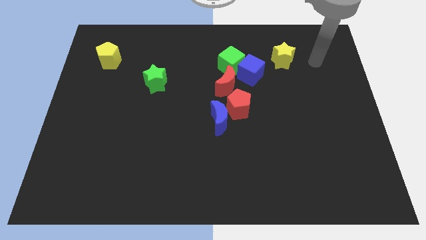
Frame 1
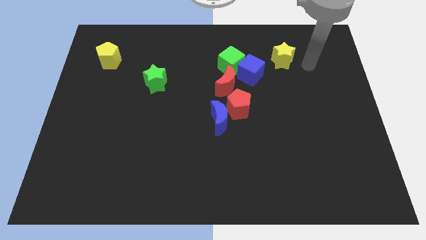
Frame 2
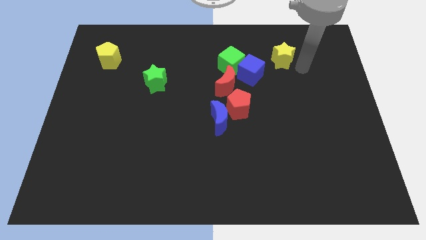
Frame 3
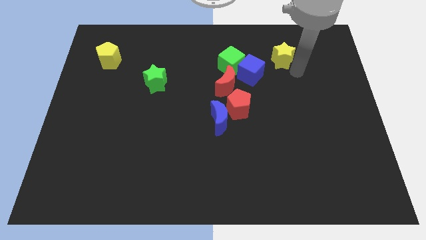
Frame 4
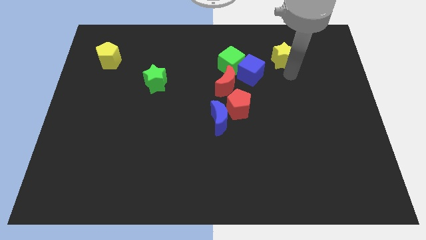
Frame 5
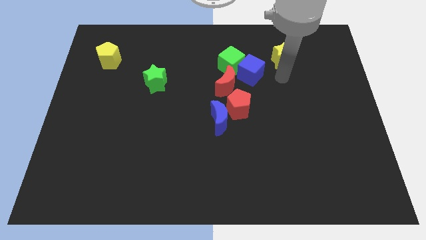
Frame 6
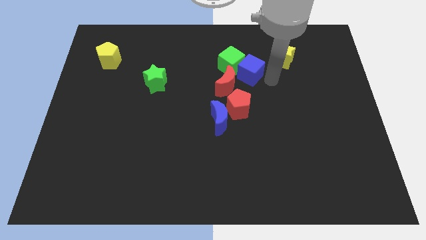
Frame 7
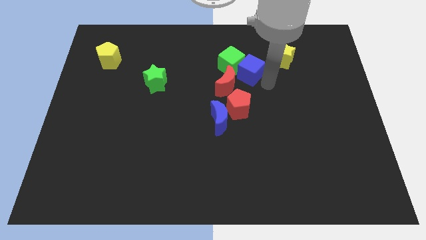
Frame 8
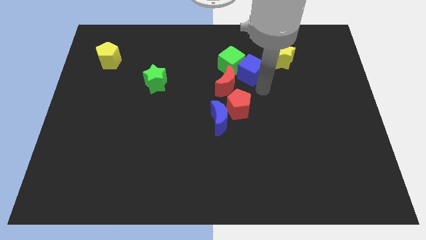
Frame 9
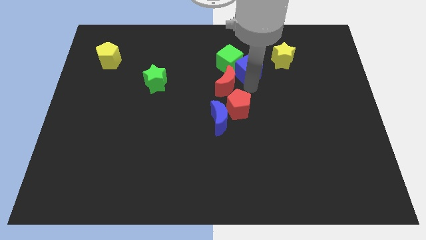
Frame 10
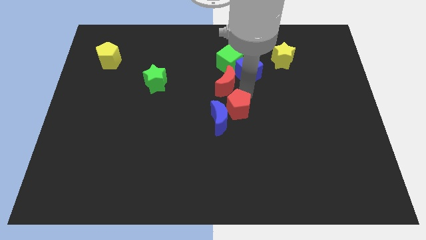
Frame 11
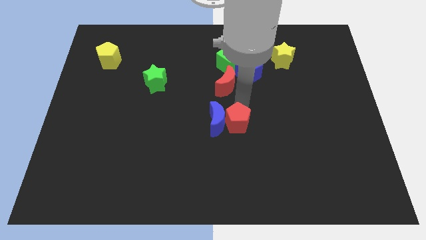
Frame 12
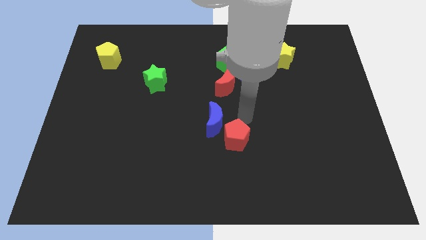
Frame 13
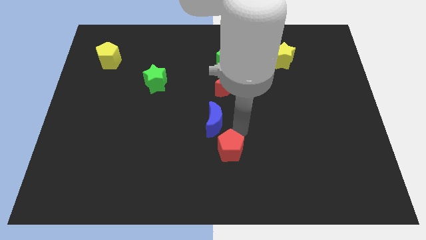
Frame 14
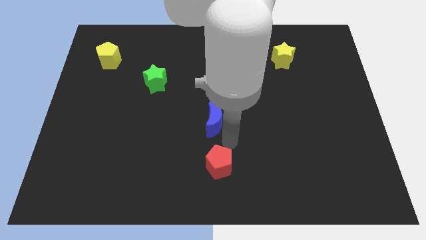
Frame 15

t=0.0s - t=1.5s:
move the blue moon away from the red pentagon

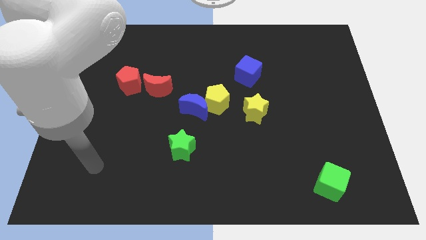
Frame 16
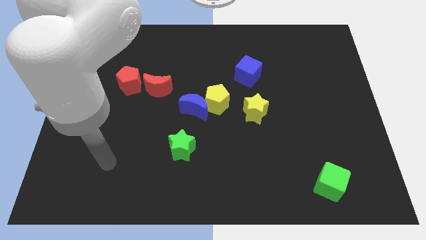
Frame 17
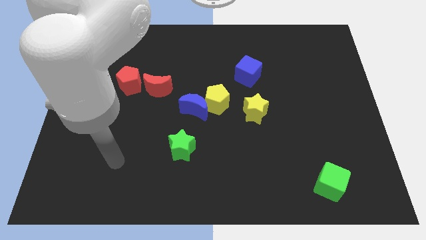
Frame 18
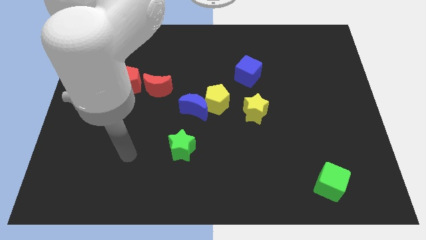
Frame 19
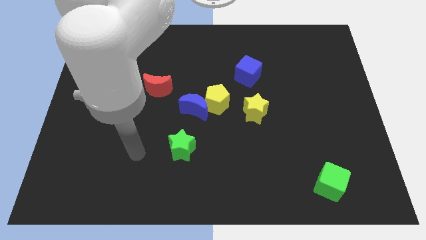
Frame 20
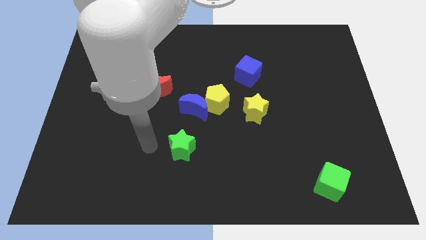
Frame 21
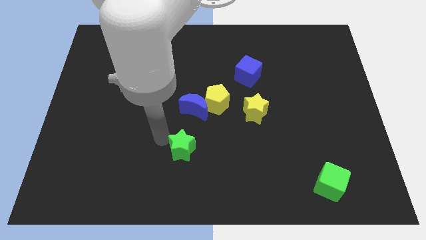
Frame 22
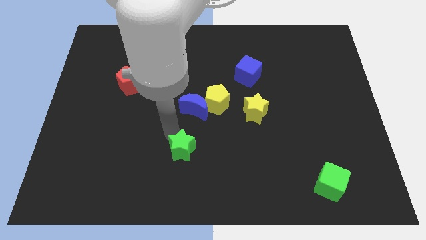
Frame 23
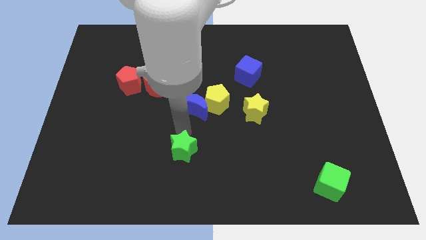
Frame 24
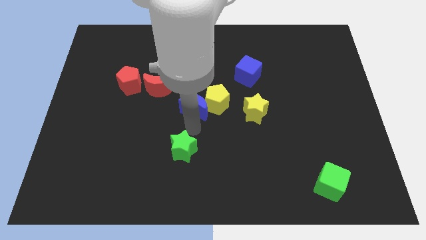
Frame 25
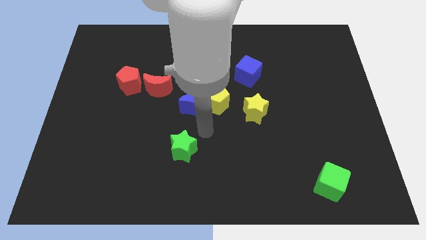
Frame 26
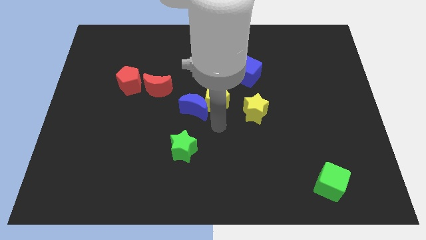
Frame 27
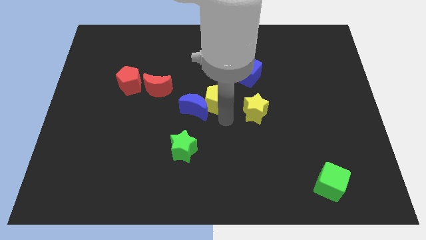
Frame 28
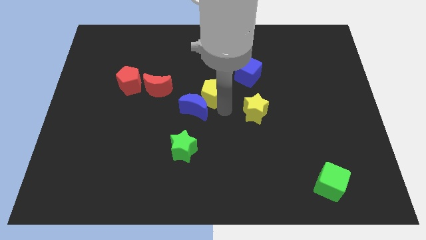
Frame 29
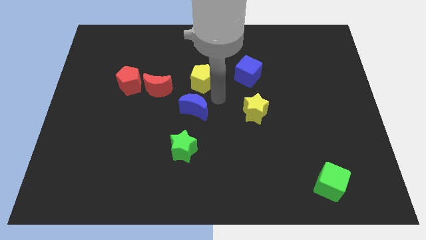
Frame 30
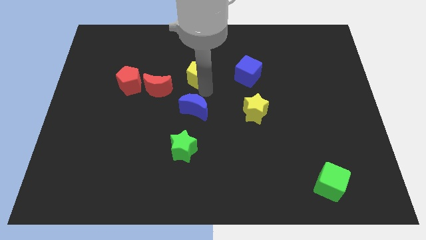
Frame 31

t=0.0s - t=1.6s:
separate the blue moon from the yellow pentagon

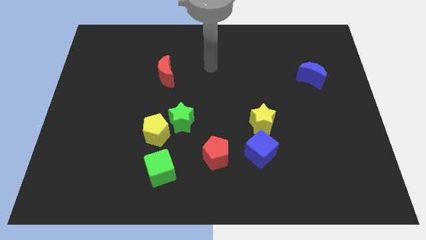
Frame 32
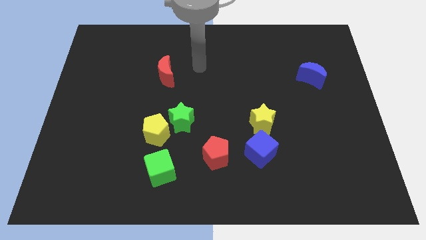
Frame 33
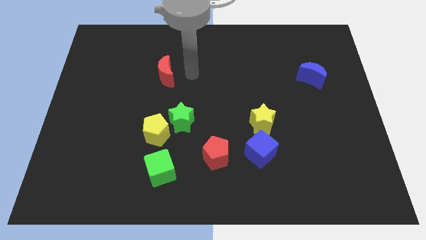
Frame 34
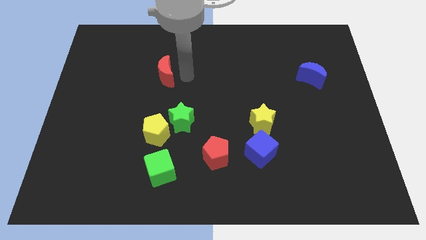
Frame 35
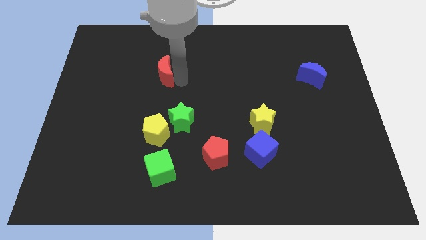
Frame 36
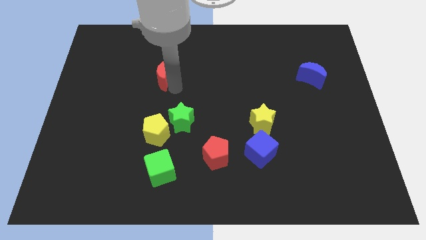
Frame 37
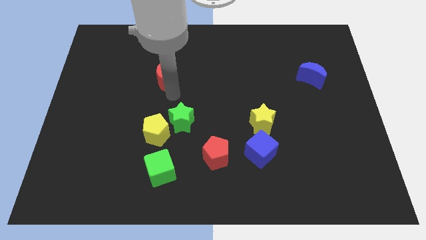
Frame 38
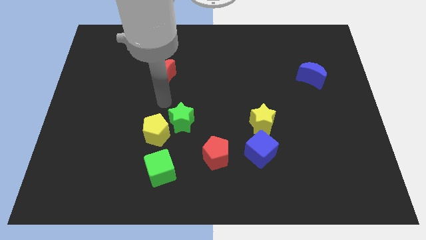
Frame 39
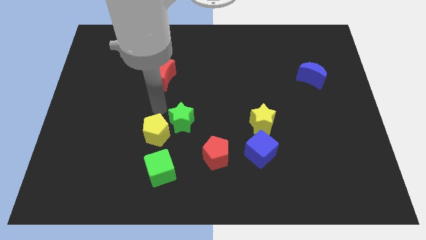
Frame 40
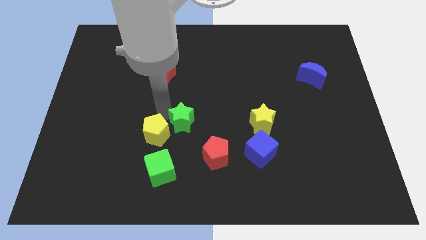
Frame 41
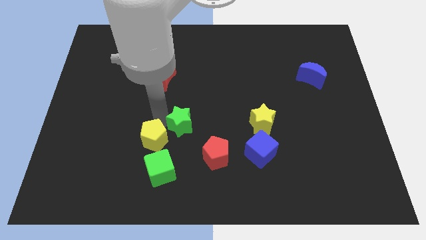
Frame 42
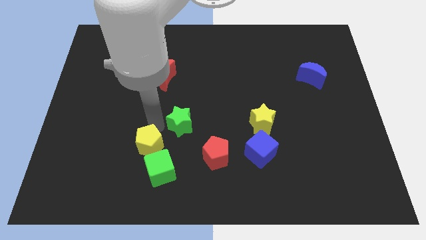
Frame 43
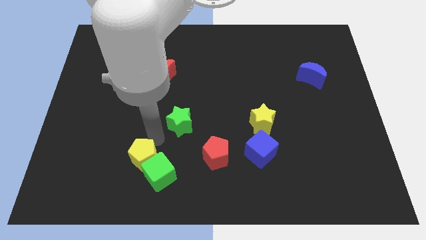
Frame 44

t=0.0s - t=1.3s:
separate the green star from the yellow pentagon

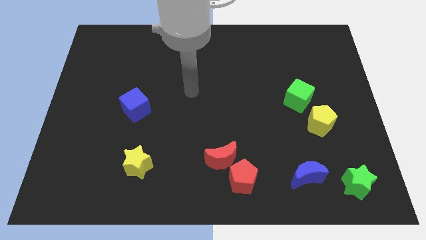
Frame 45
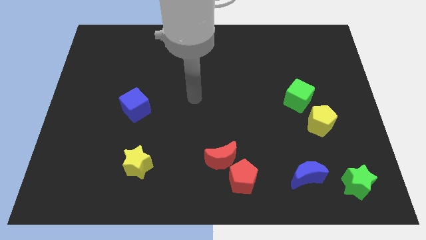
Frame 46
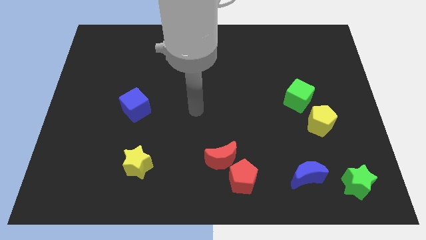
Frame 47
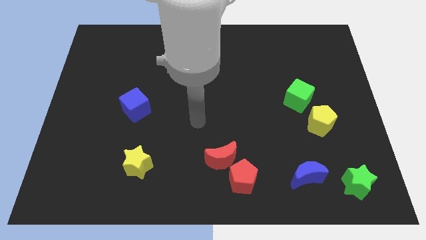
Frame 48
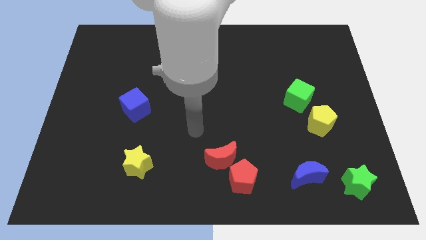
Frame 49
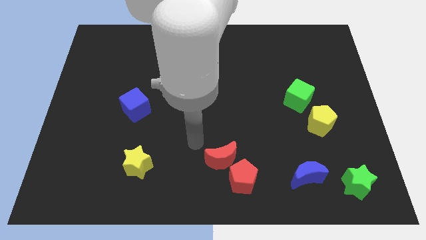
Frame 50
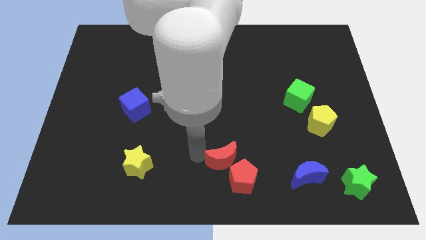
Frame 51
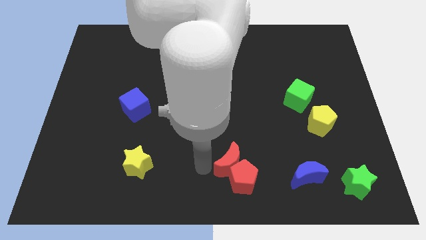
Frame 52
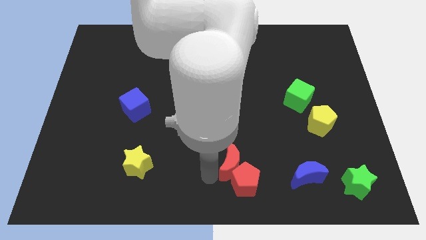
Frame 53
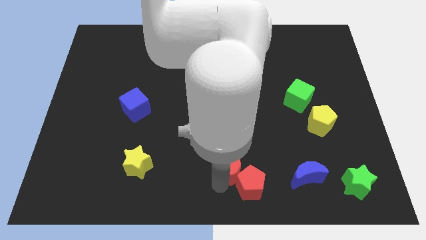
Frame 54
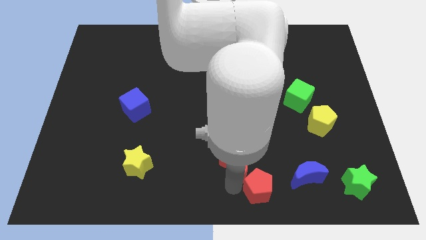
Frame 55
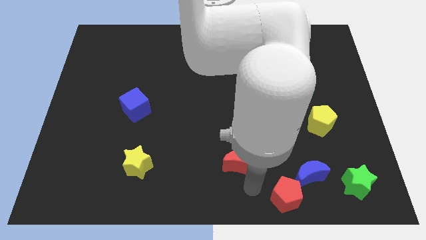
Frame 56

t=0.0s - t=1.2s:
move the red moon away from the red pentagon

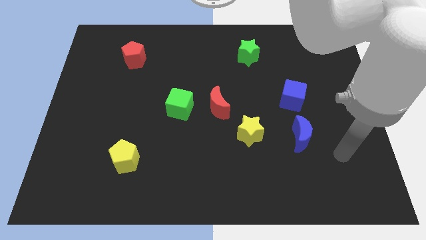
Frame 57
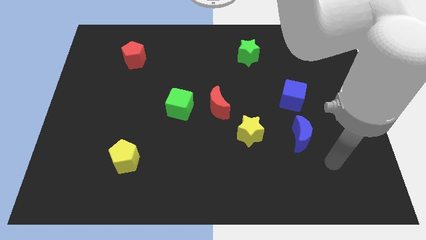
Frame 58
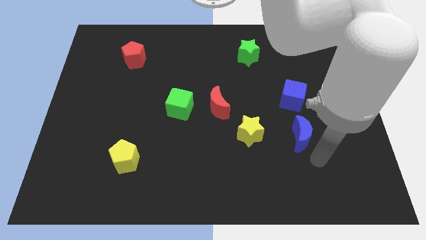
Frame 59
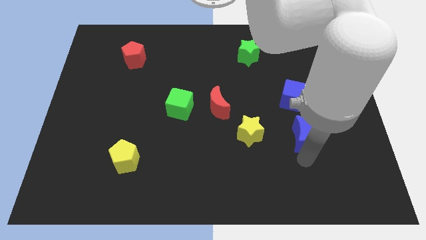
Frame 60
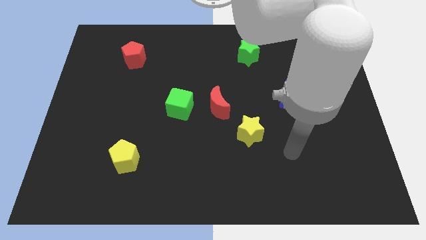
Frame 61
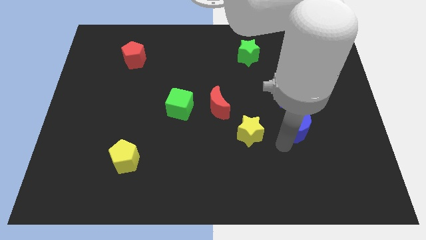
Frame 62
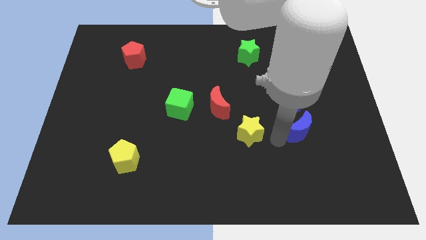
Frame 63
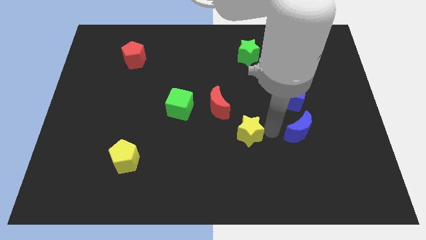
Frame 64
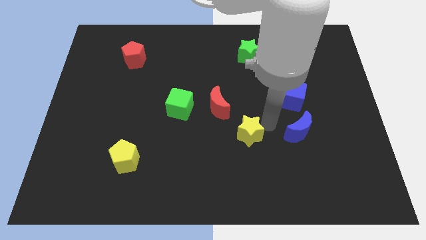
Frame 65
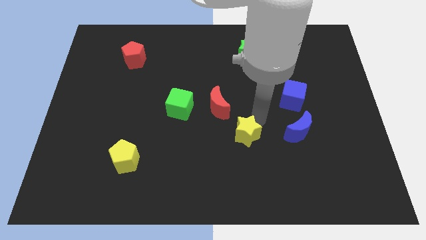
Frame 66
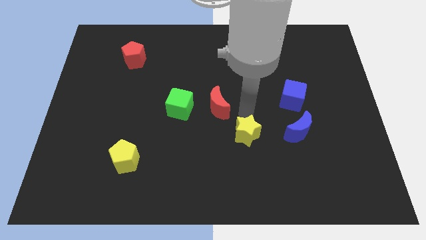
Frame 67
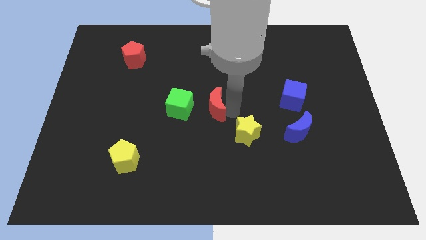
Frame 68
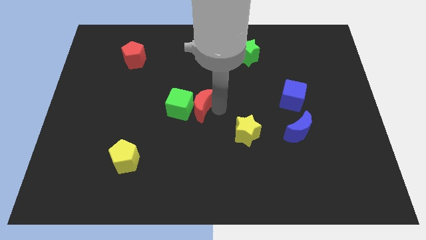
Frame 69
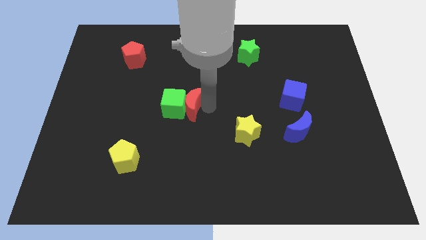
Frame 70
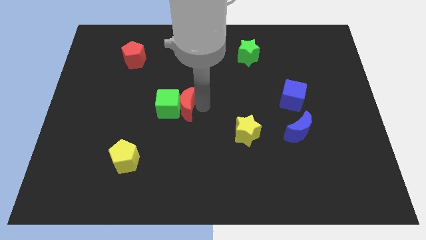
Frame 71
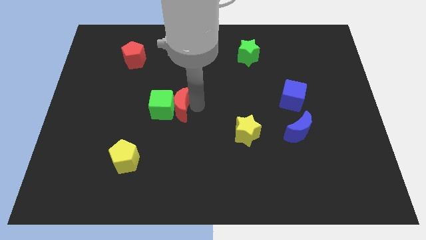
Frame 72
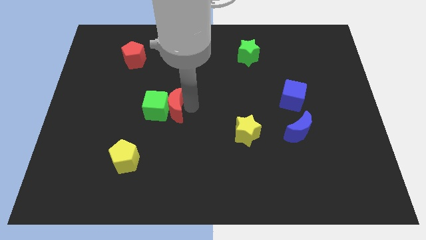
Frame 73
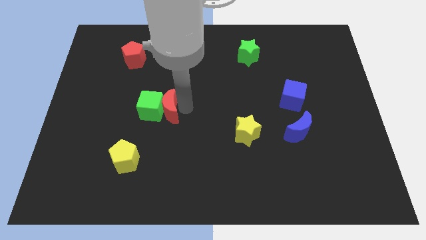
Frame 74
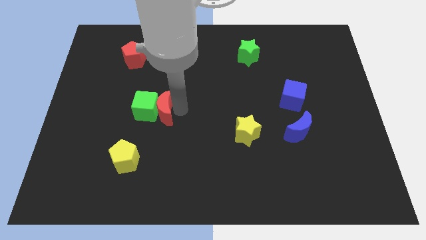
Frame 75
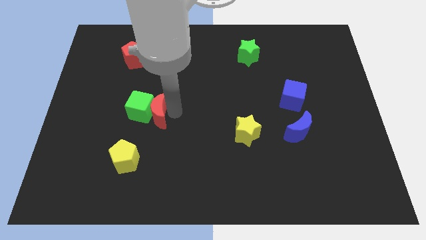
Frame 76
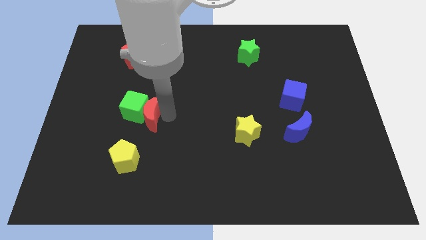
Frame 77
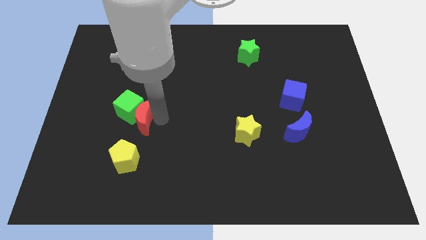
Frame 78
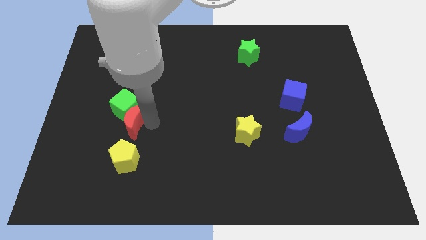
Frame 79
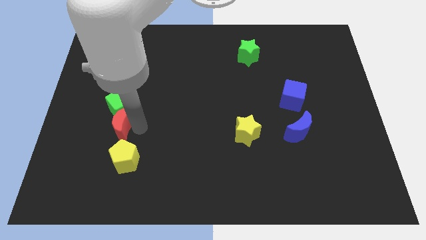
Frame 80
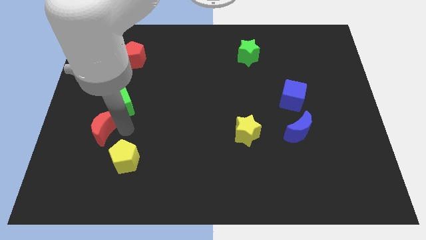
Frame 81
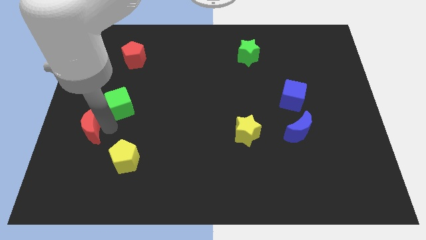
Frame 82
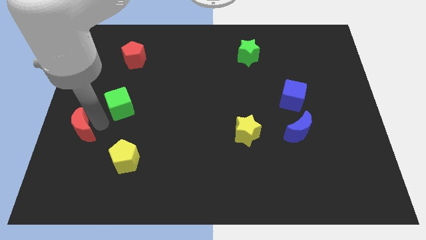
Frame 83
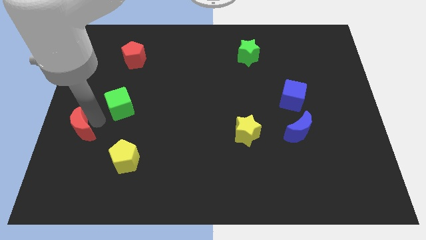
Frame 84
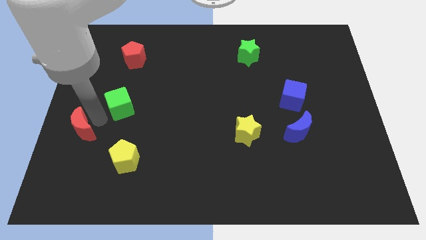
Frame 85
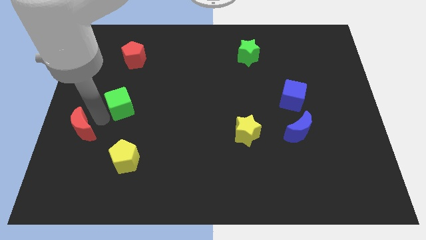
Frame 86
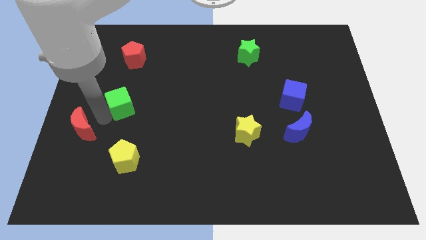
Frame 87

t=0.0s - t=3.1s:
move the green cube away from the red moon

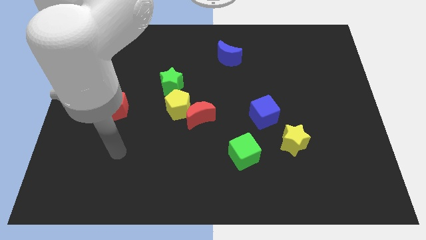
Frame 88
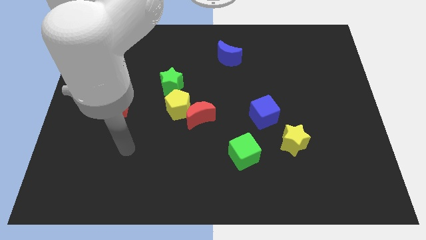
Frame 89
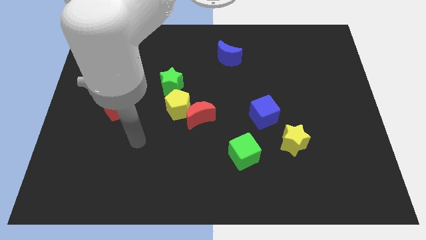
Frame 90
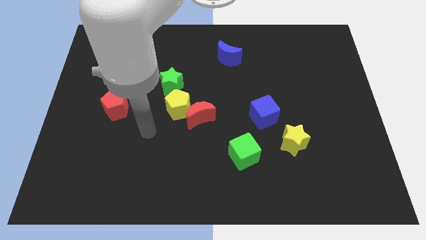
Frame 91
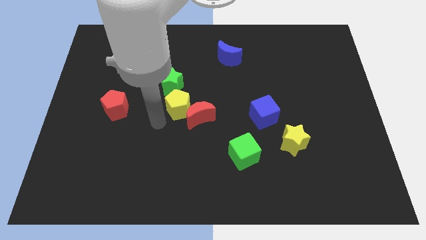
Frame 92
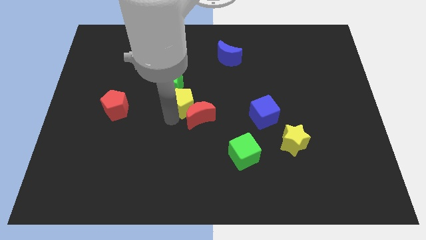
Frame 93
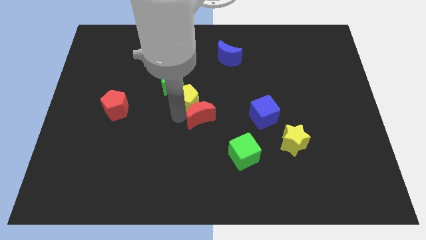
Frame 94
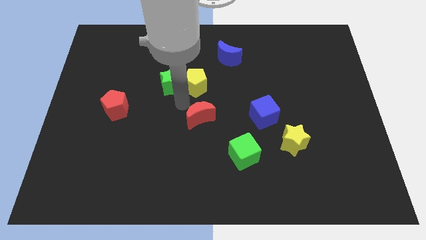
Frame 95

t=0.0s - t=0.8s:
separate the red moon from the yellow pentagon

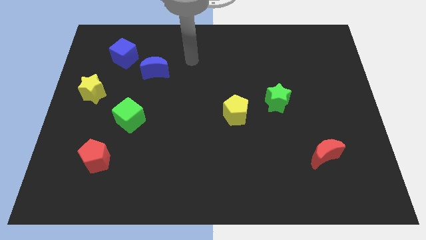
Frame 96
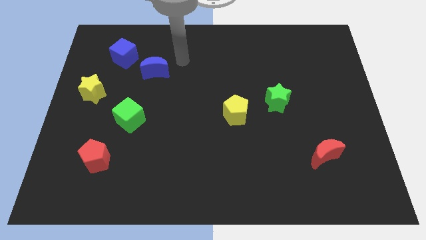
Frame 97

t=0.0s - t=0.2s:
pull the blue moon apart from the blue cube
